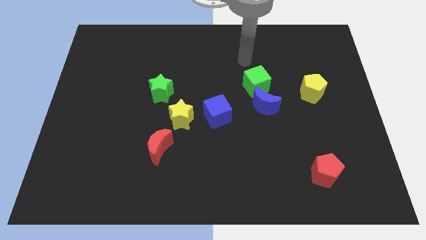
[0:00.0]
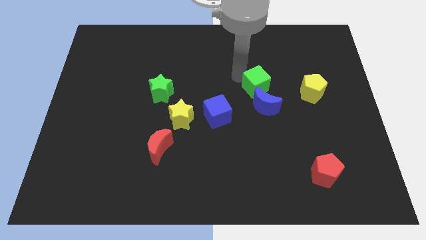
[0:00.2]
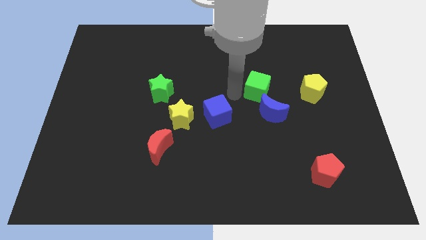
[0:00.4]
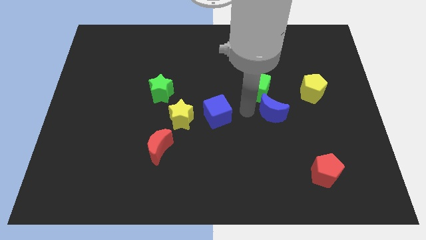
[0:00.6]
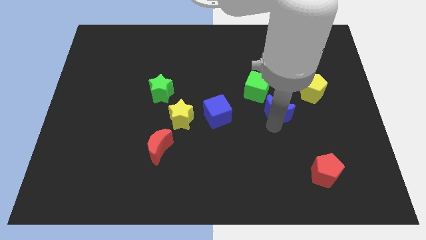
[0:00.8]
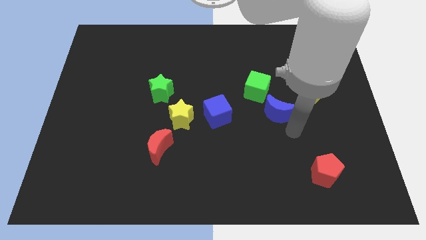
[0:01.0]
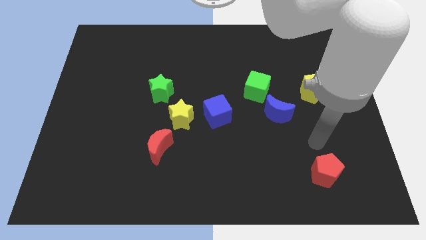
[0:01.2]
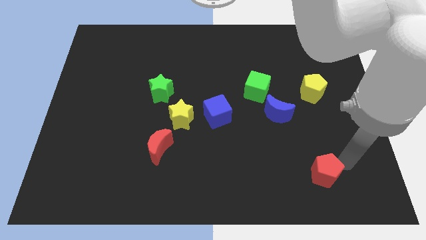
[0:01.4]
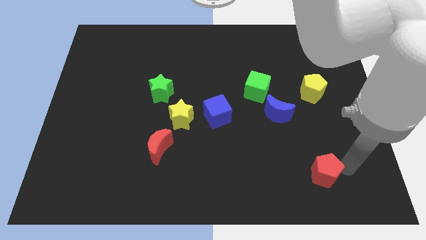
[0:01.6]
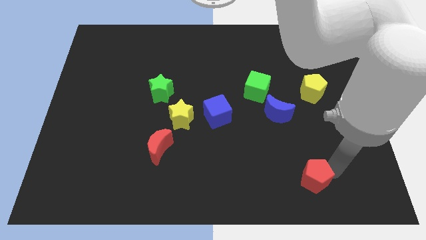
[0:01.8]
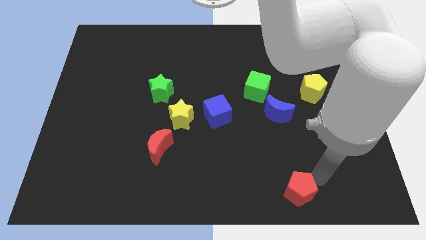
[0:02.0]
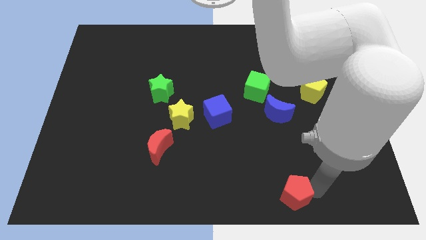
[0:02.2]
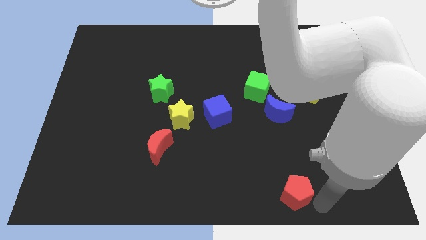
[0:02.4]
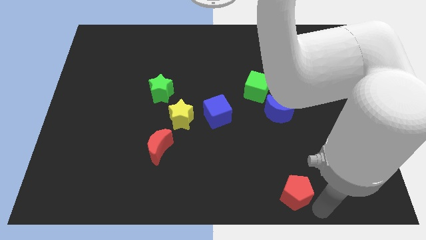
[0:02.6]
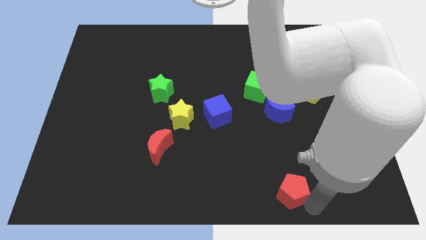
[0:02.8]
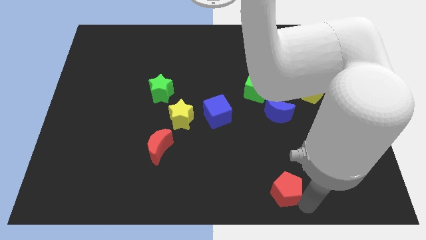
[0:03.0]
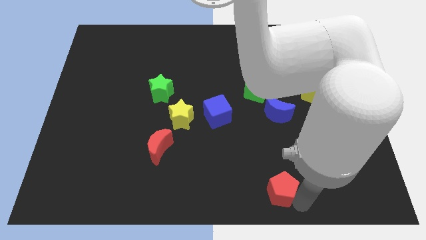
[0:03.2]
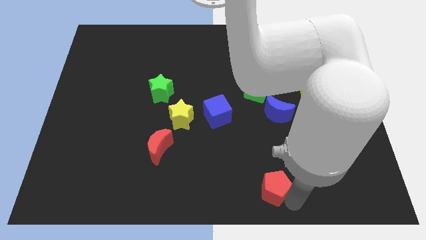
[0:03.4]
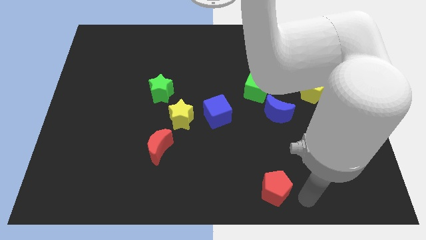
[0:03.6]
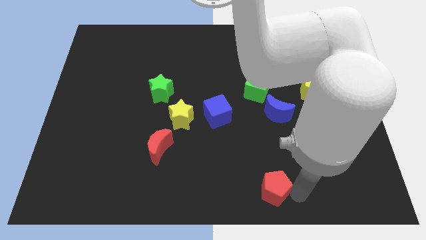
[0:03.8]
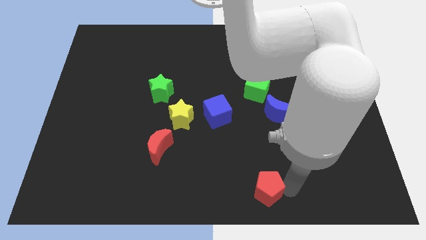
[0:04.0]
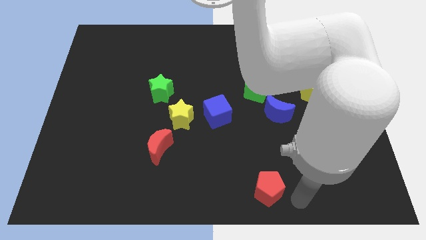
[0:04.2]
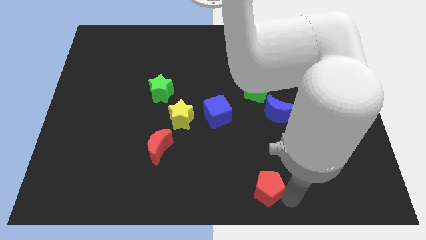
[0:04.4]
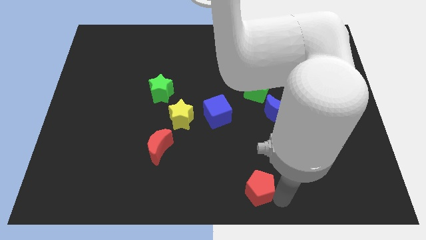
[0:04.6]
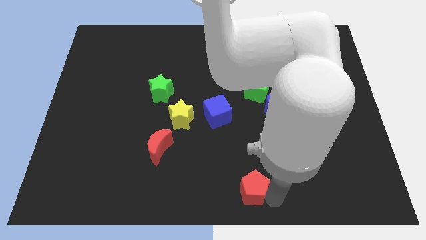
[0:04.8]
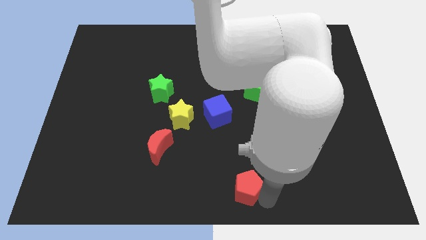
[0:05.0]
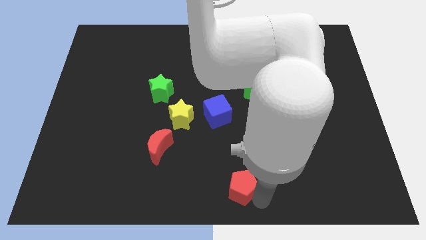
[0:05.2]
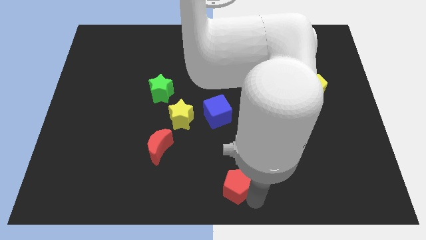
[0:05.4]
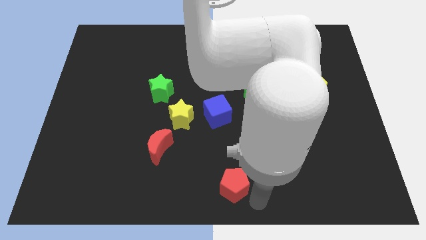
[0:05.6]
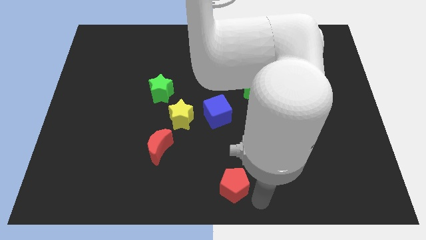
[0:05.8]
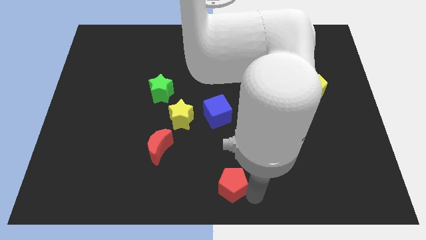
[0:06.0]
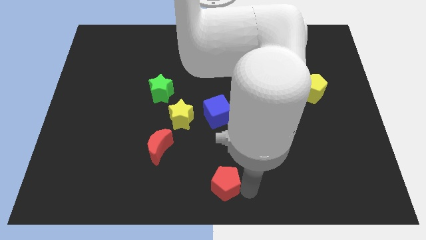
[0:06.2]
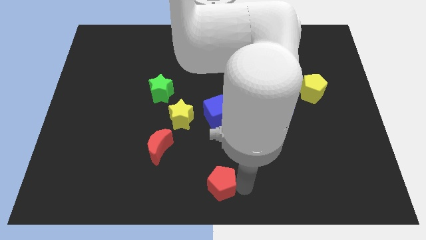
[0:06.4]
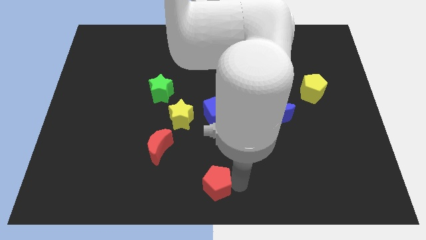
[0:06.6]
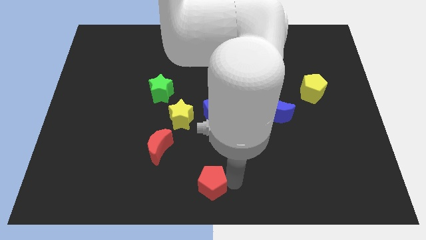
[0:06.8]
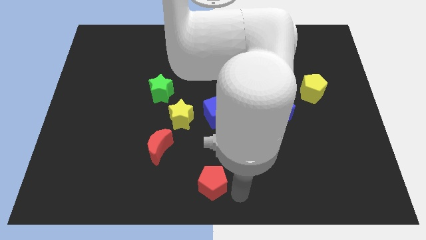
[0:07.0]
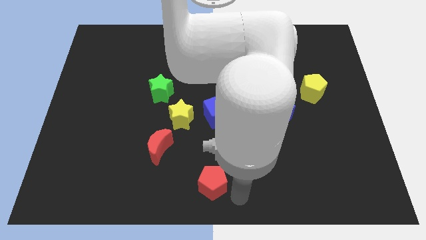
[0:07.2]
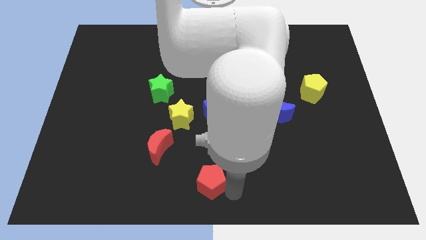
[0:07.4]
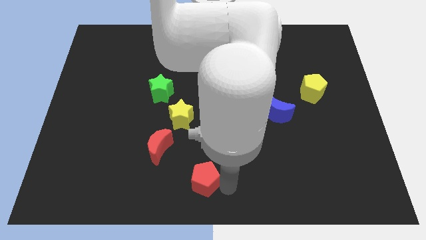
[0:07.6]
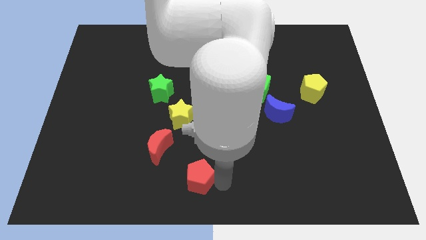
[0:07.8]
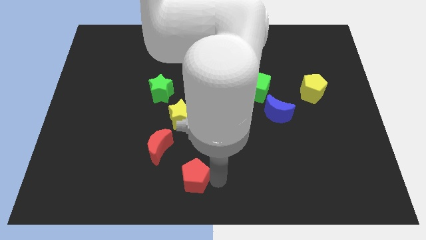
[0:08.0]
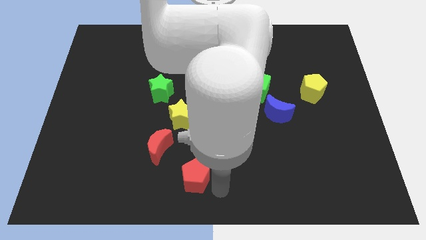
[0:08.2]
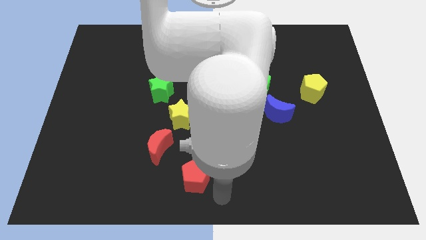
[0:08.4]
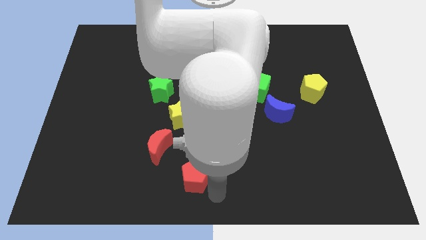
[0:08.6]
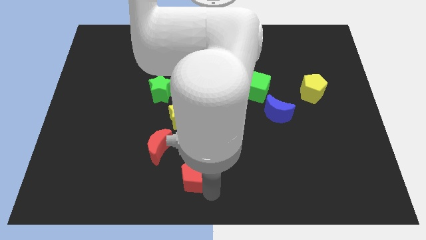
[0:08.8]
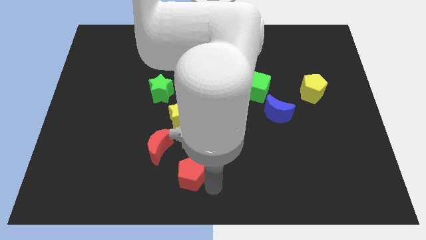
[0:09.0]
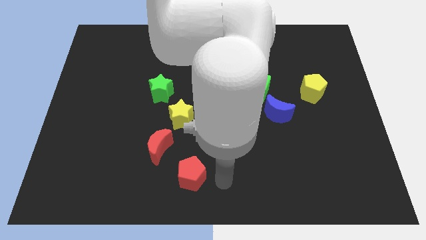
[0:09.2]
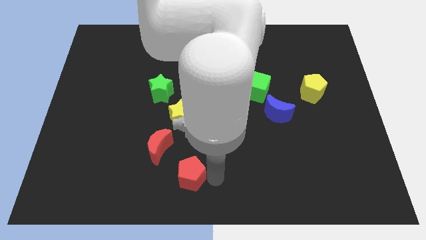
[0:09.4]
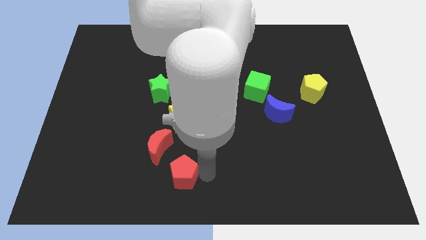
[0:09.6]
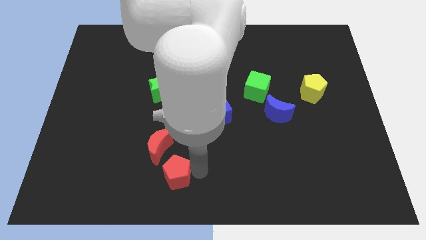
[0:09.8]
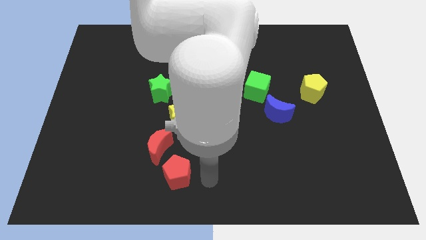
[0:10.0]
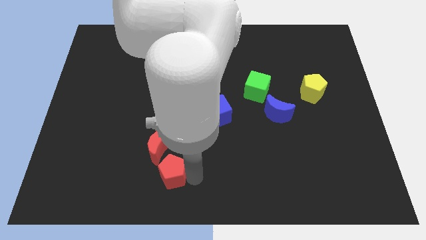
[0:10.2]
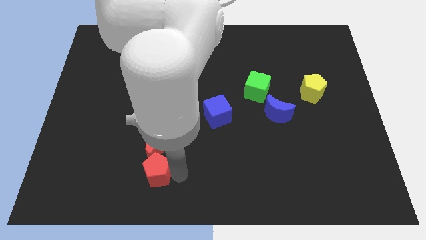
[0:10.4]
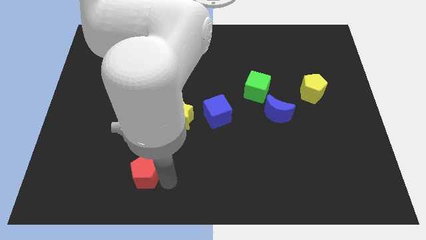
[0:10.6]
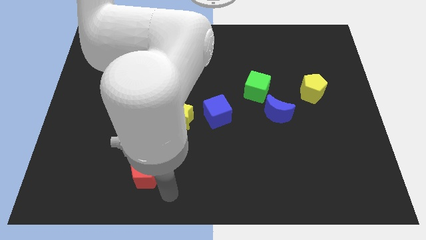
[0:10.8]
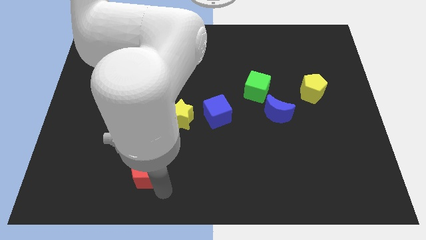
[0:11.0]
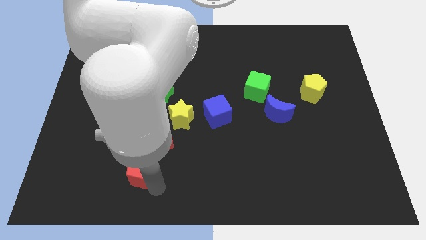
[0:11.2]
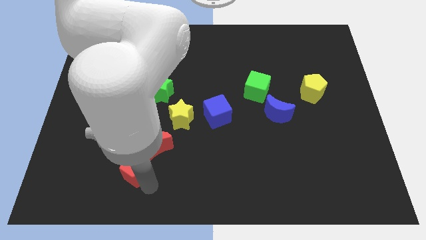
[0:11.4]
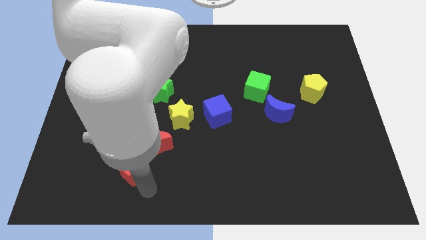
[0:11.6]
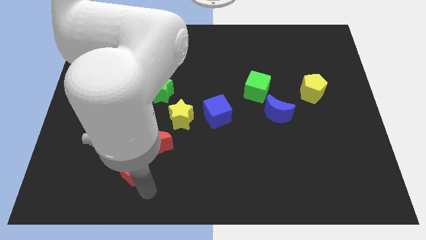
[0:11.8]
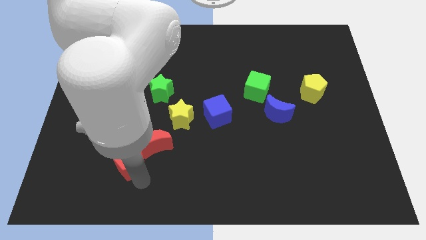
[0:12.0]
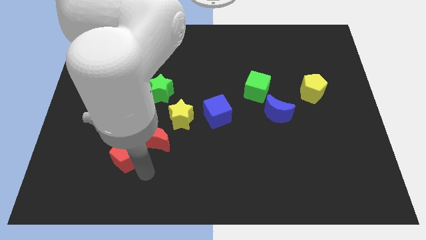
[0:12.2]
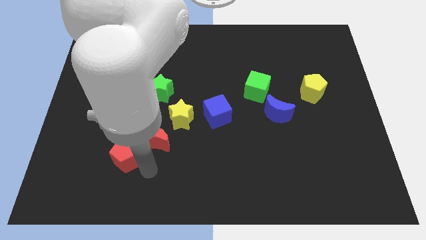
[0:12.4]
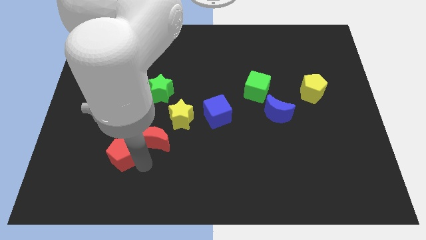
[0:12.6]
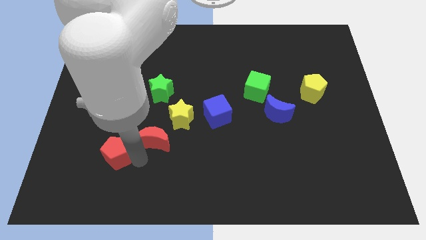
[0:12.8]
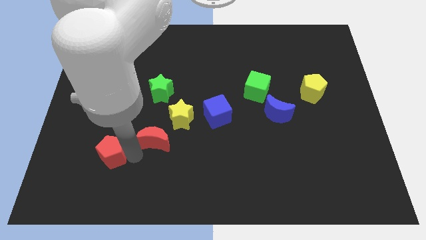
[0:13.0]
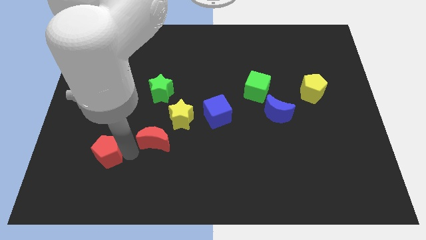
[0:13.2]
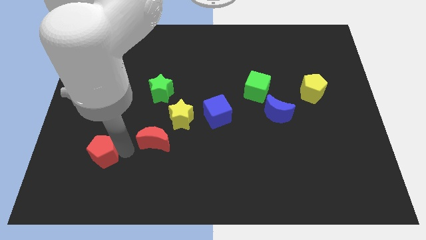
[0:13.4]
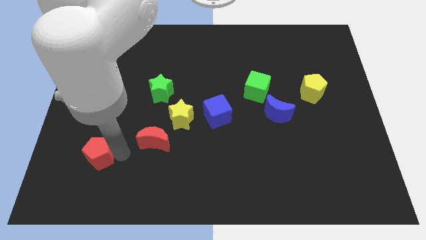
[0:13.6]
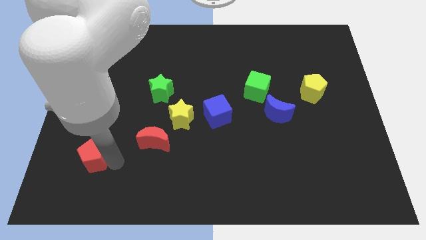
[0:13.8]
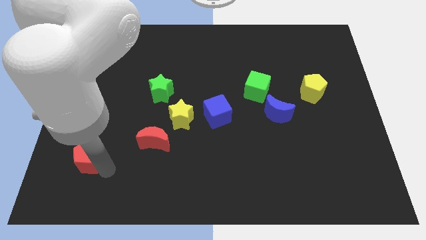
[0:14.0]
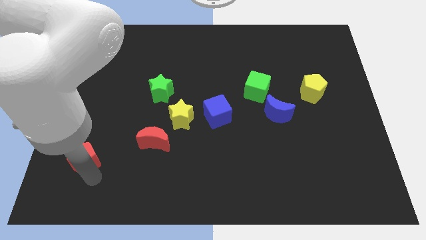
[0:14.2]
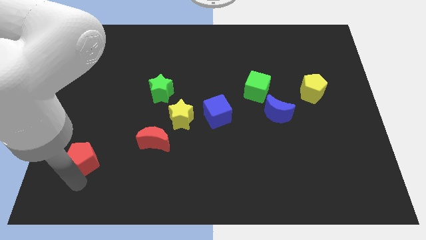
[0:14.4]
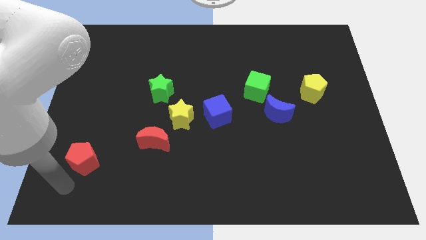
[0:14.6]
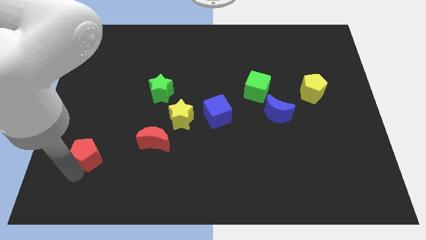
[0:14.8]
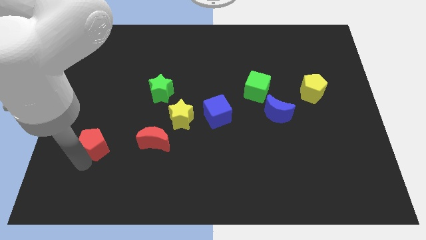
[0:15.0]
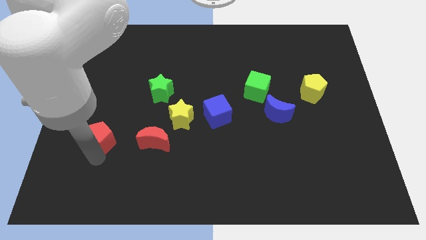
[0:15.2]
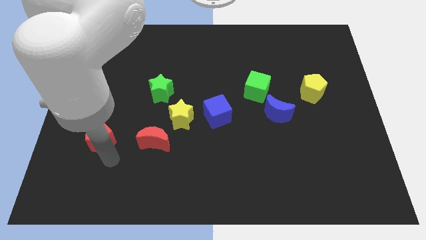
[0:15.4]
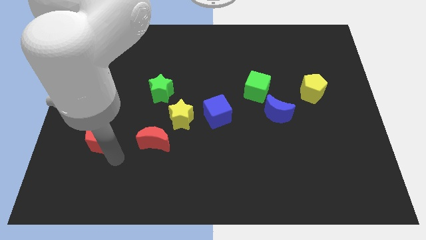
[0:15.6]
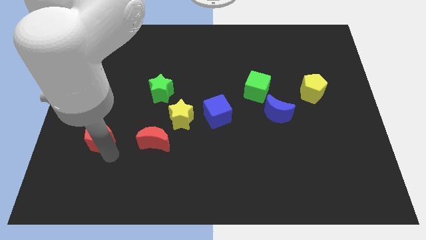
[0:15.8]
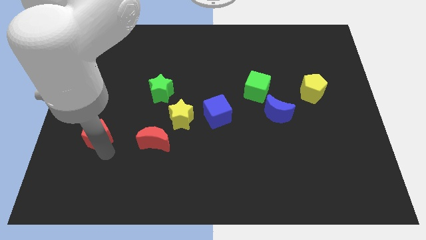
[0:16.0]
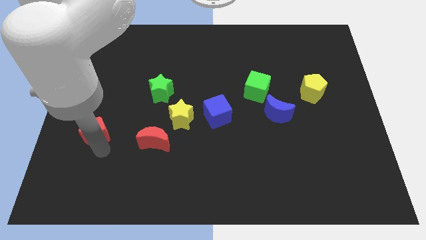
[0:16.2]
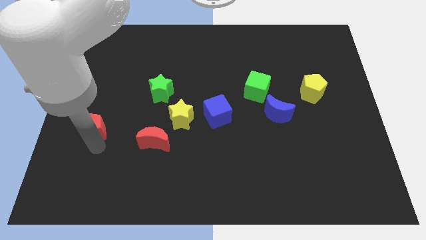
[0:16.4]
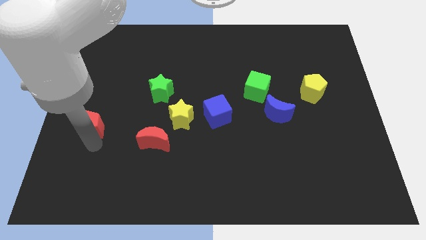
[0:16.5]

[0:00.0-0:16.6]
put the red pentagon to the left side of the board
